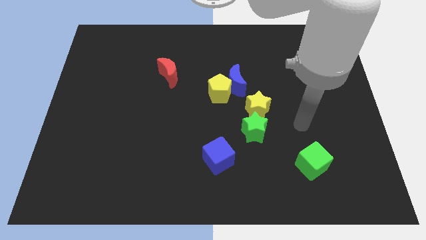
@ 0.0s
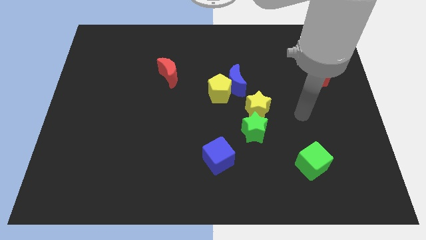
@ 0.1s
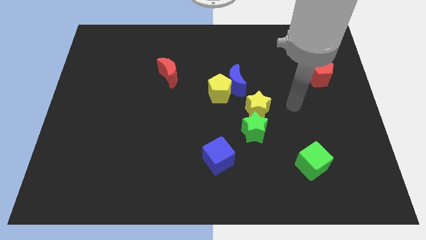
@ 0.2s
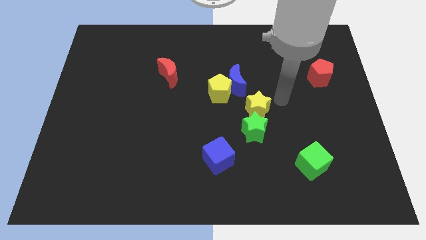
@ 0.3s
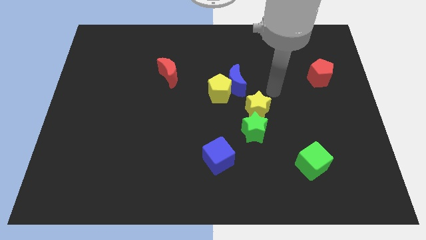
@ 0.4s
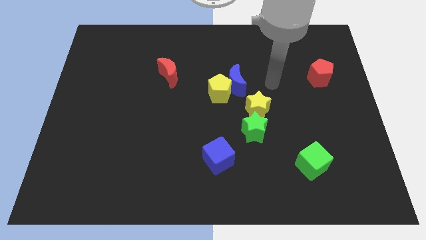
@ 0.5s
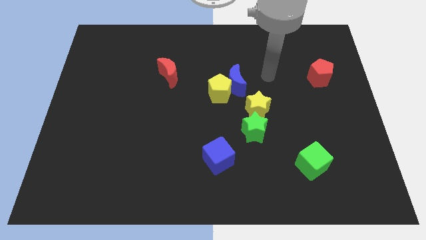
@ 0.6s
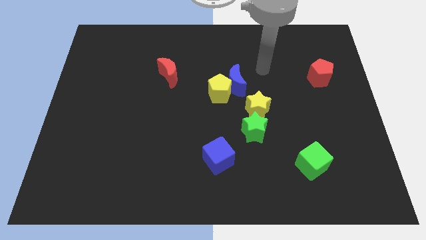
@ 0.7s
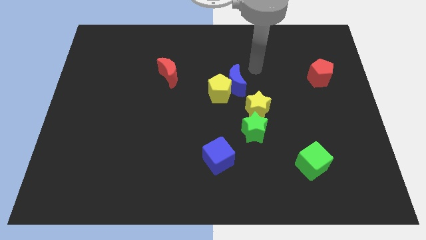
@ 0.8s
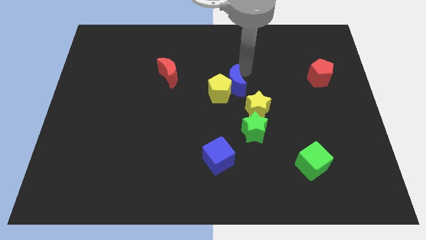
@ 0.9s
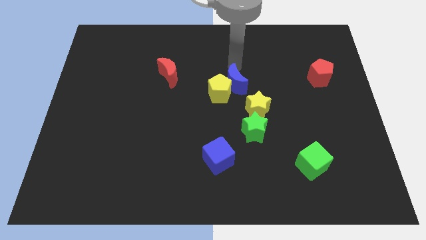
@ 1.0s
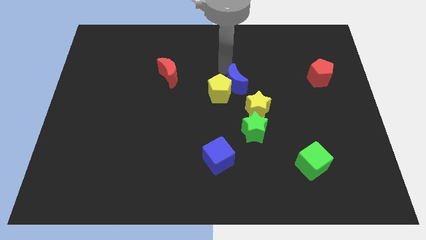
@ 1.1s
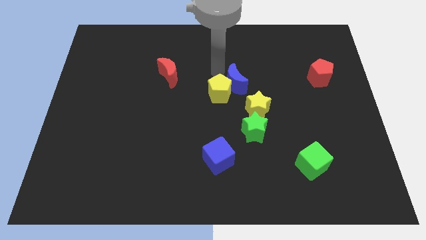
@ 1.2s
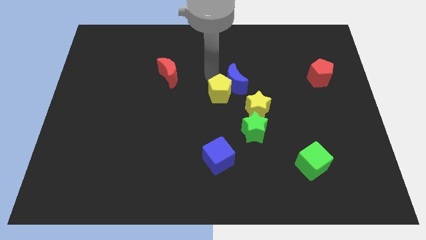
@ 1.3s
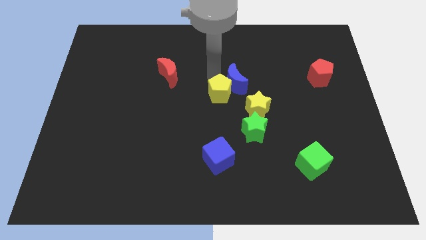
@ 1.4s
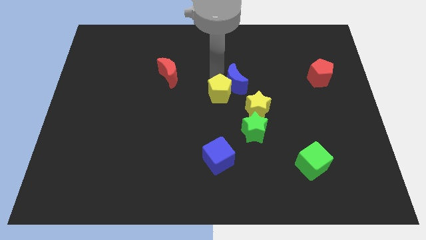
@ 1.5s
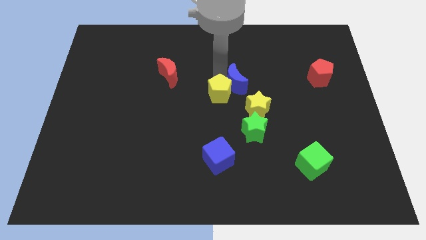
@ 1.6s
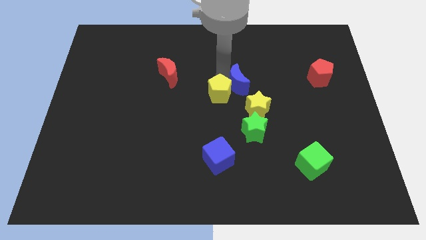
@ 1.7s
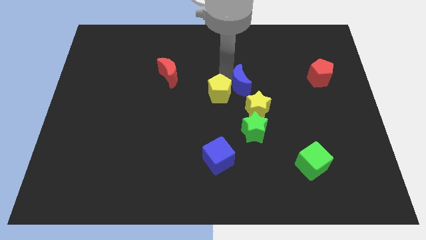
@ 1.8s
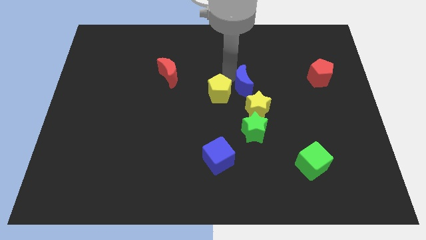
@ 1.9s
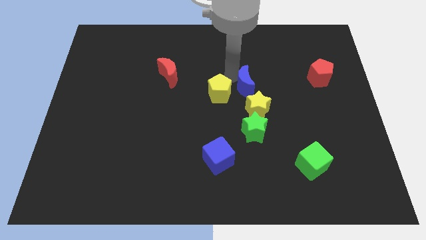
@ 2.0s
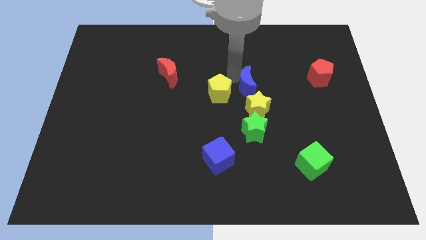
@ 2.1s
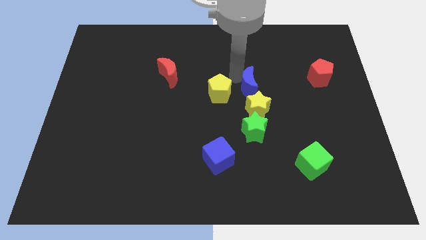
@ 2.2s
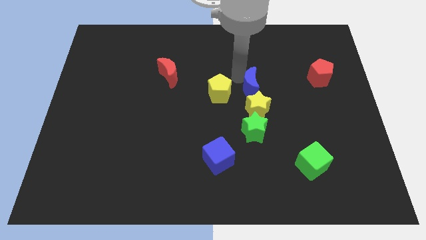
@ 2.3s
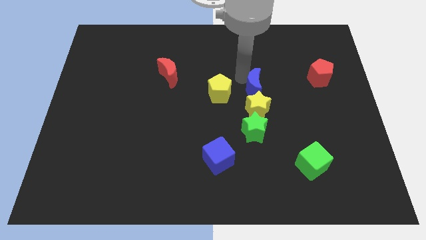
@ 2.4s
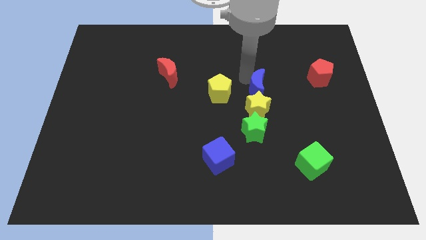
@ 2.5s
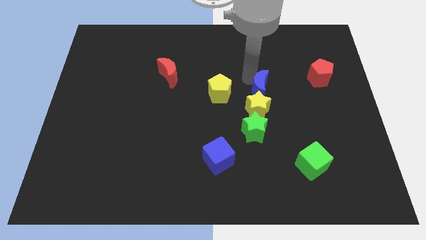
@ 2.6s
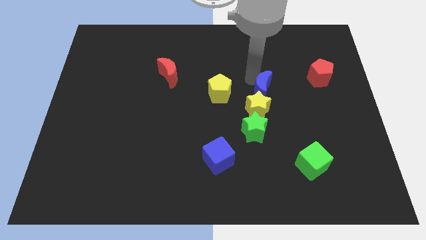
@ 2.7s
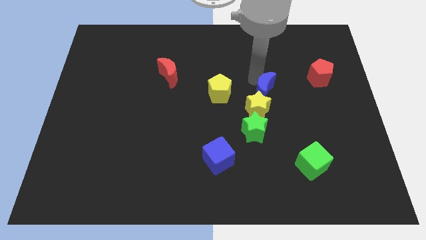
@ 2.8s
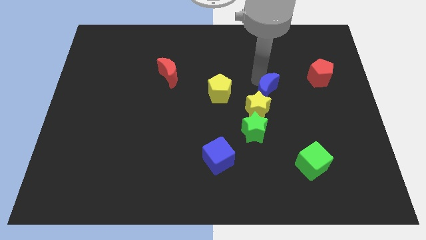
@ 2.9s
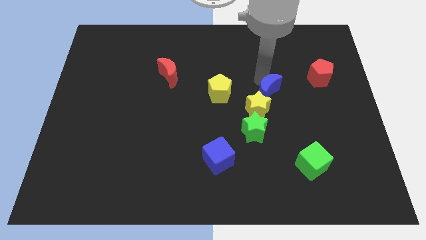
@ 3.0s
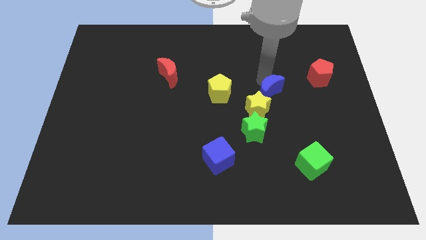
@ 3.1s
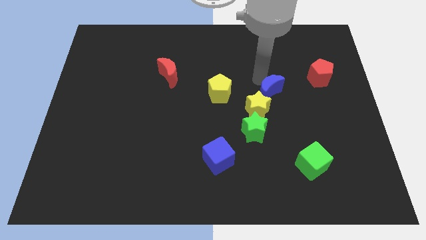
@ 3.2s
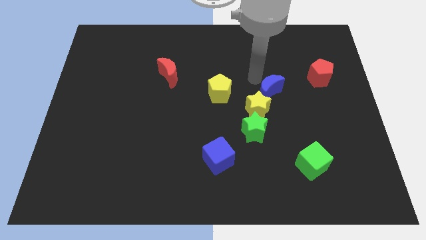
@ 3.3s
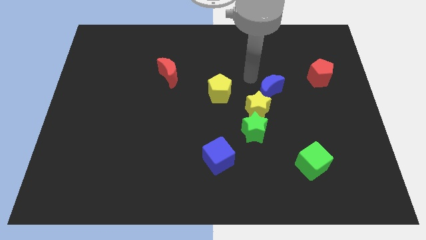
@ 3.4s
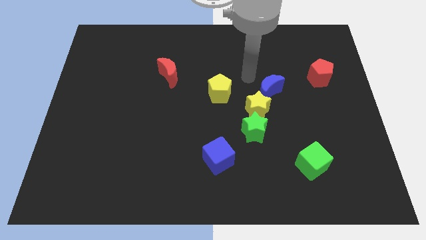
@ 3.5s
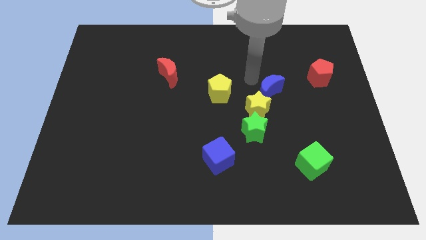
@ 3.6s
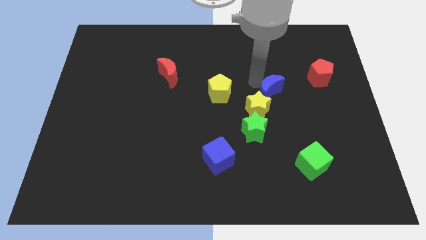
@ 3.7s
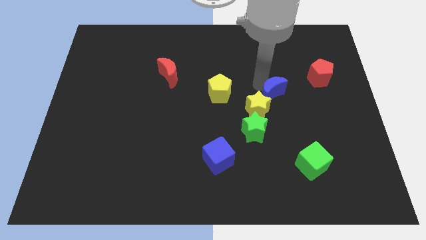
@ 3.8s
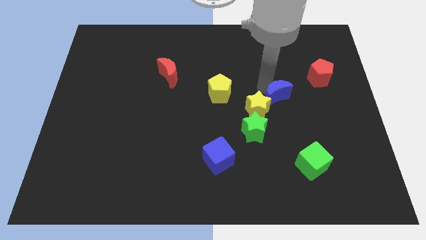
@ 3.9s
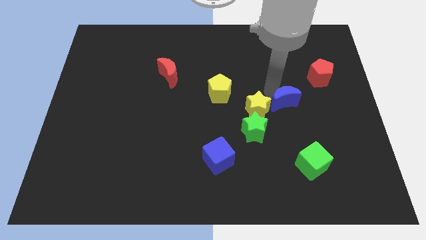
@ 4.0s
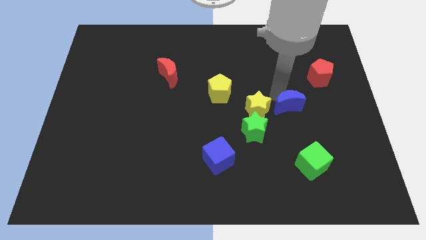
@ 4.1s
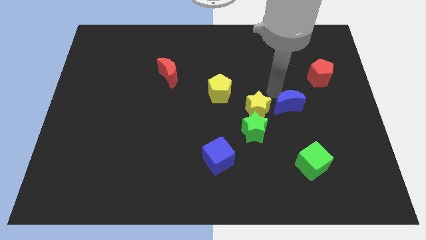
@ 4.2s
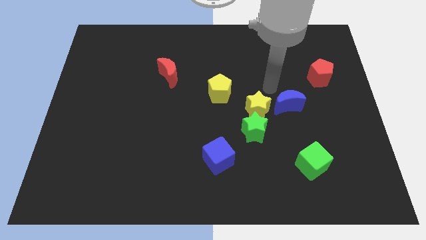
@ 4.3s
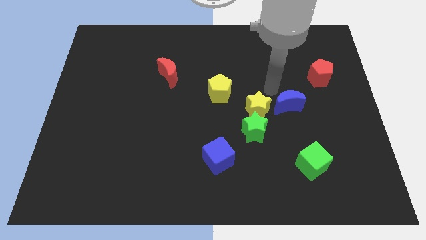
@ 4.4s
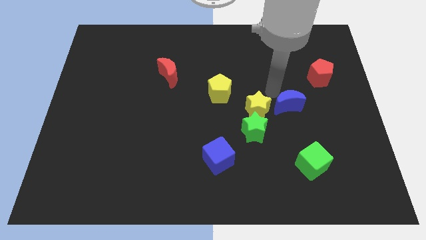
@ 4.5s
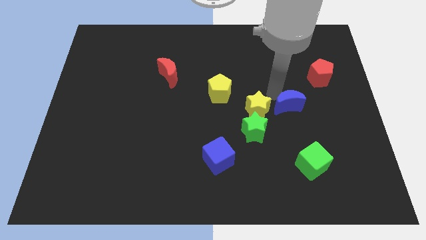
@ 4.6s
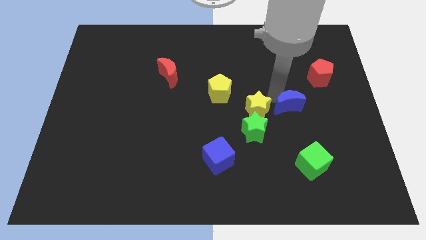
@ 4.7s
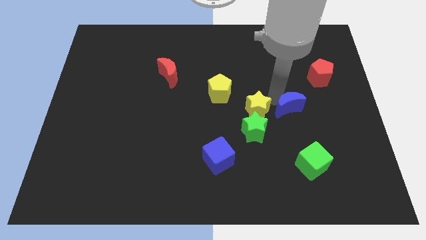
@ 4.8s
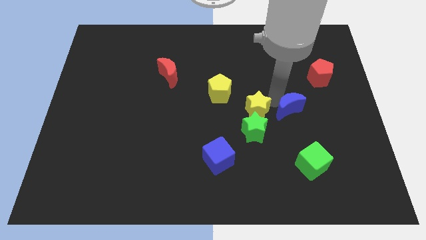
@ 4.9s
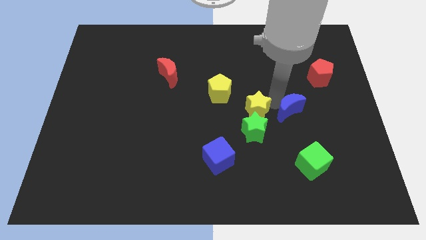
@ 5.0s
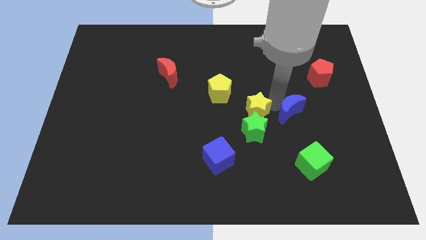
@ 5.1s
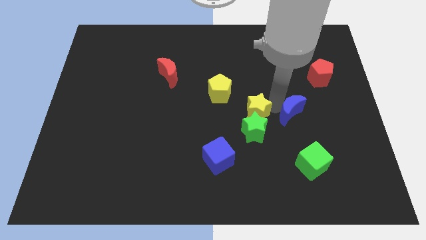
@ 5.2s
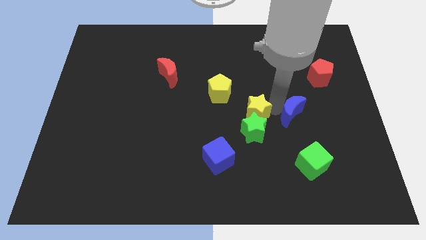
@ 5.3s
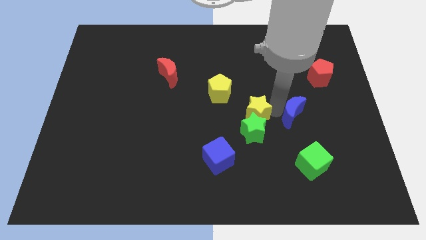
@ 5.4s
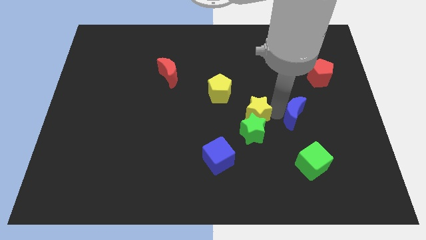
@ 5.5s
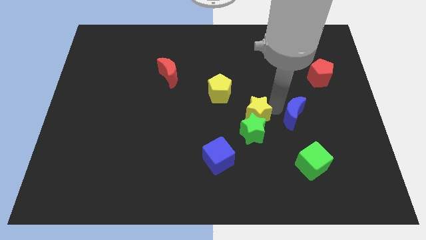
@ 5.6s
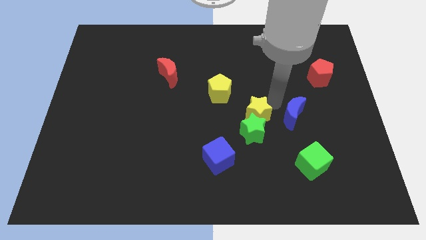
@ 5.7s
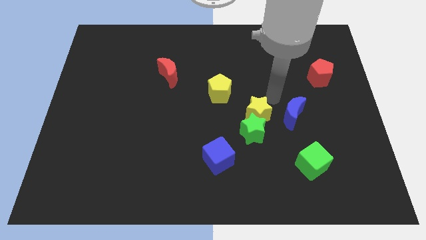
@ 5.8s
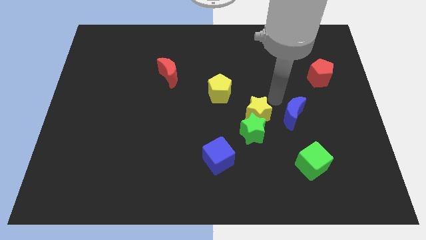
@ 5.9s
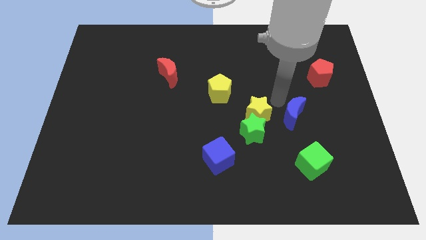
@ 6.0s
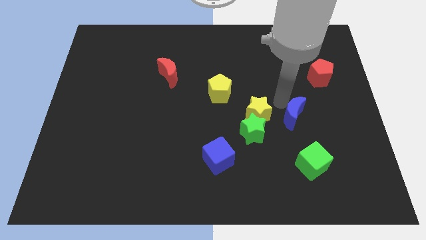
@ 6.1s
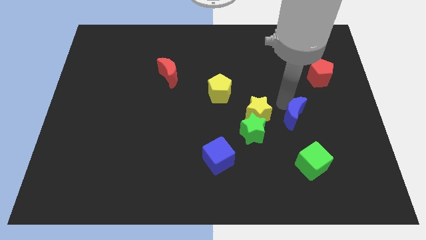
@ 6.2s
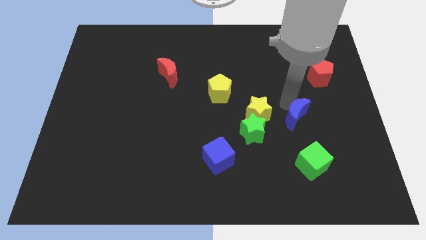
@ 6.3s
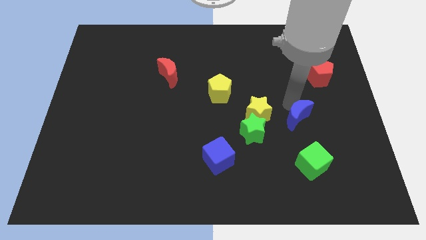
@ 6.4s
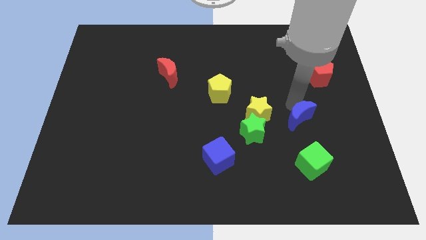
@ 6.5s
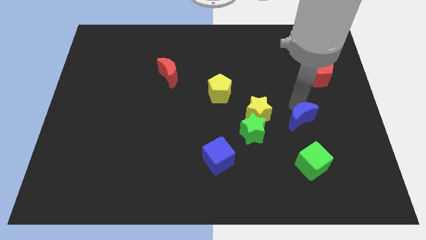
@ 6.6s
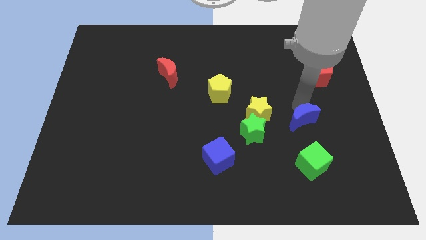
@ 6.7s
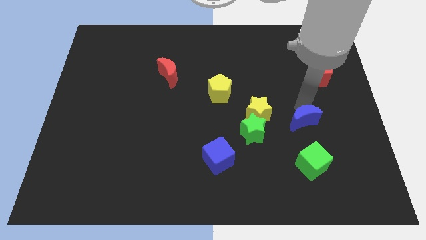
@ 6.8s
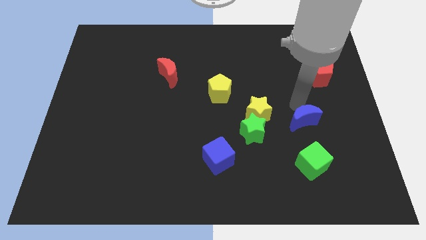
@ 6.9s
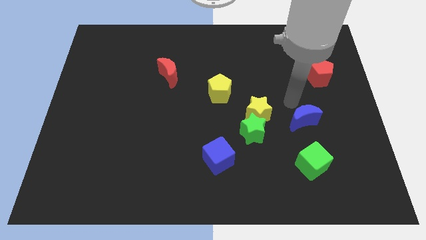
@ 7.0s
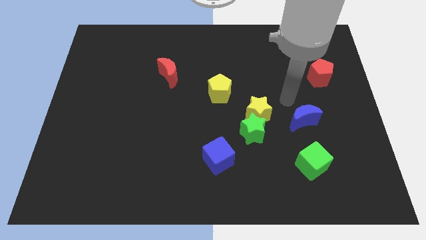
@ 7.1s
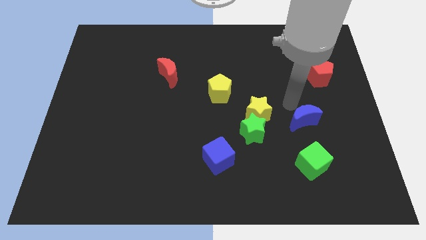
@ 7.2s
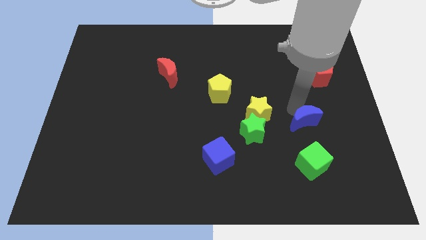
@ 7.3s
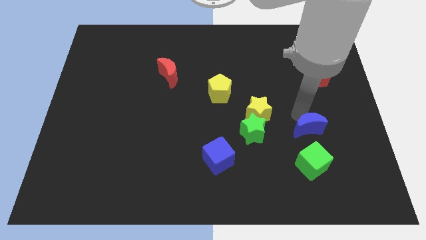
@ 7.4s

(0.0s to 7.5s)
slide the blue moon downwards and to the right diagonally

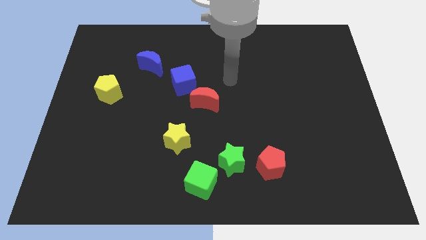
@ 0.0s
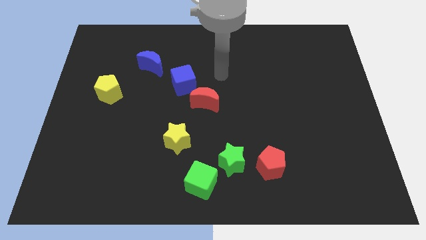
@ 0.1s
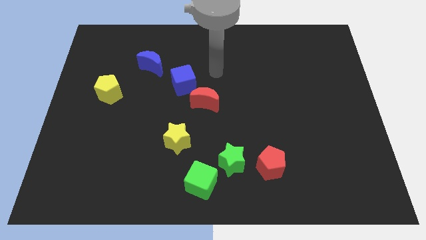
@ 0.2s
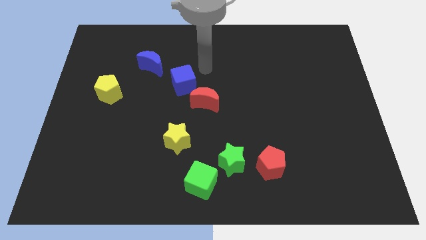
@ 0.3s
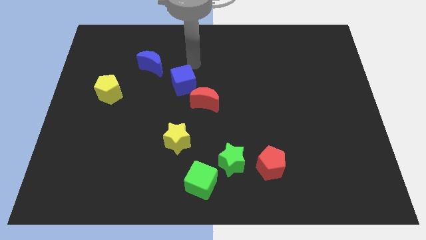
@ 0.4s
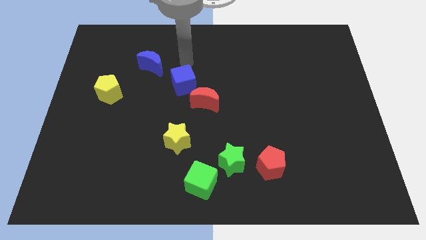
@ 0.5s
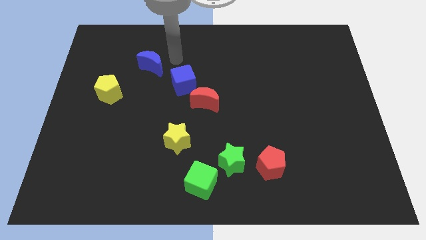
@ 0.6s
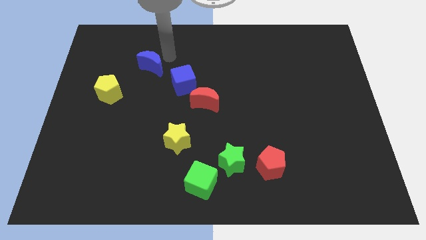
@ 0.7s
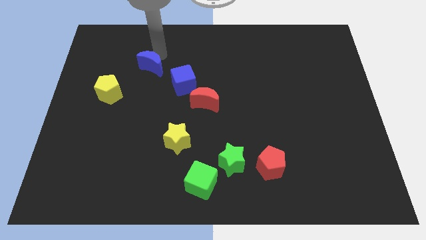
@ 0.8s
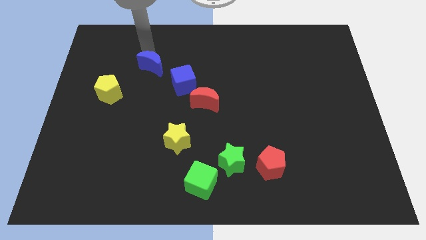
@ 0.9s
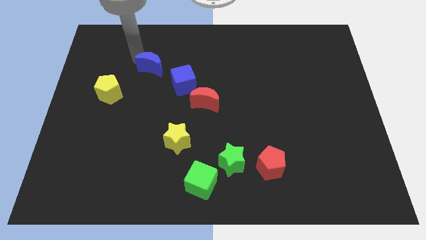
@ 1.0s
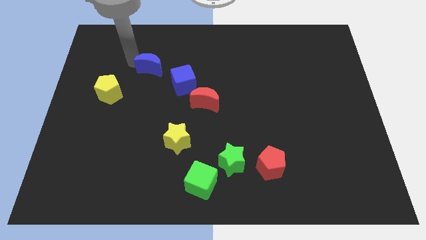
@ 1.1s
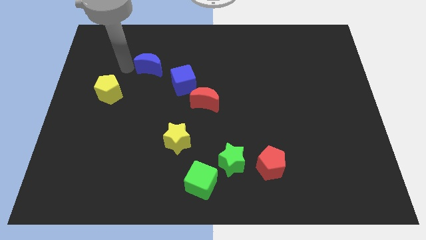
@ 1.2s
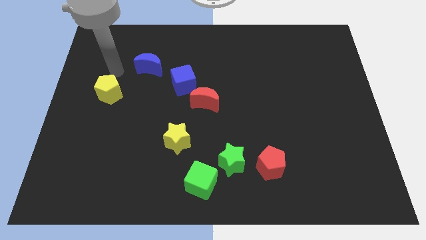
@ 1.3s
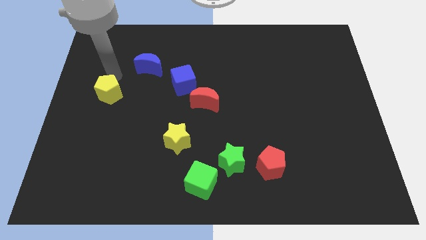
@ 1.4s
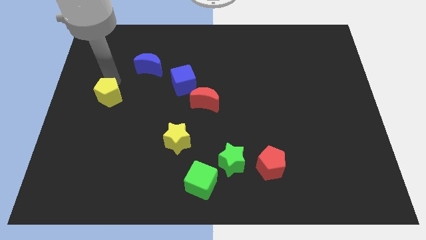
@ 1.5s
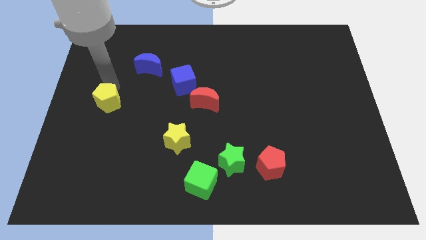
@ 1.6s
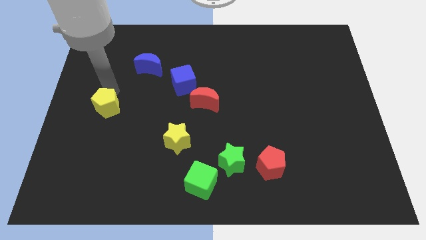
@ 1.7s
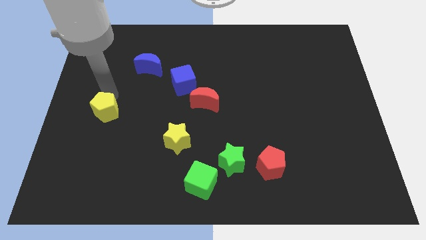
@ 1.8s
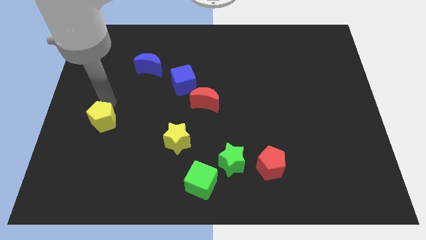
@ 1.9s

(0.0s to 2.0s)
slightly slide the yellow pentagon down
